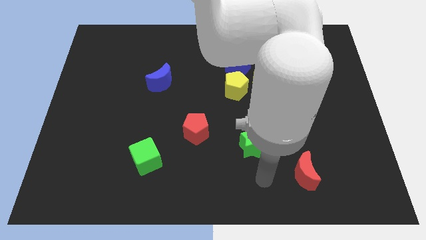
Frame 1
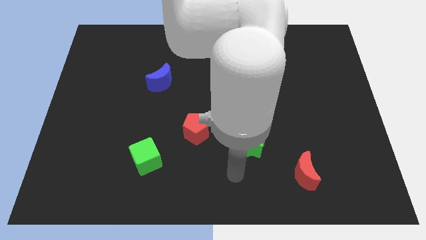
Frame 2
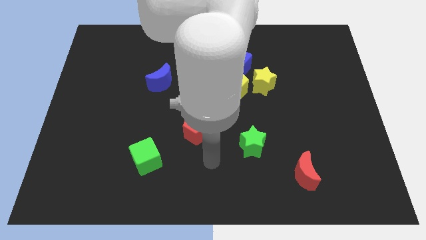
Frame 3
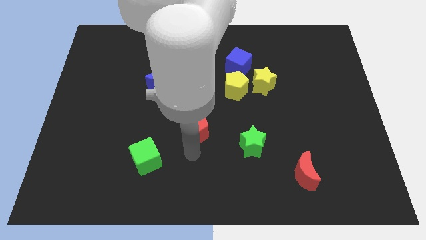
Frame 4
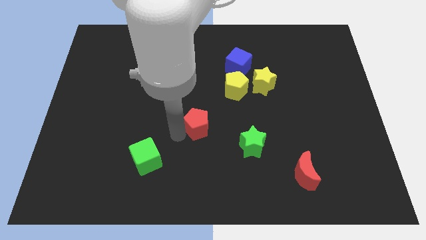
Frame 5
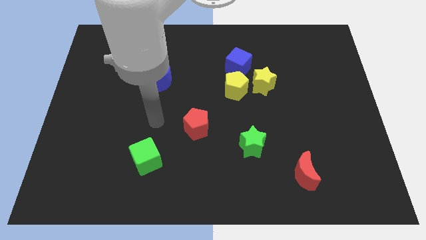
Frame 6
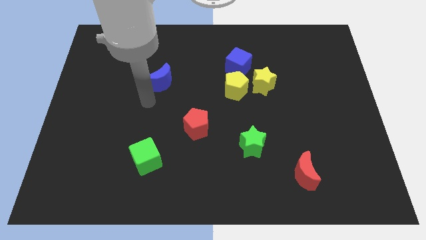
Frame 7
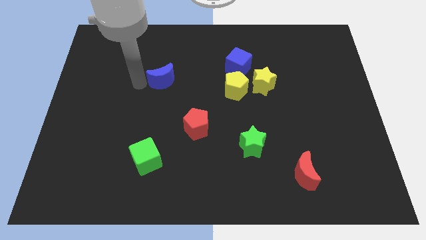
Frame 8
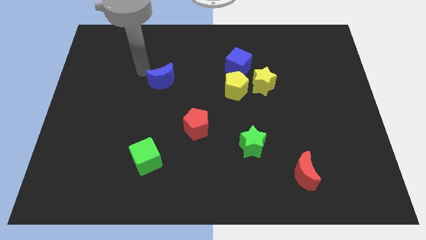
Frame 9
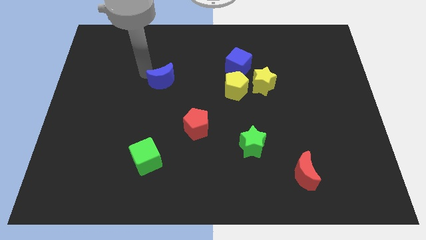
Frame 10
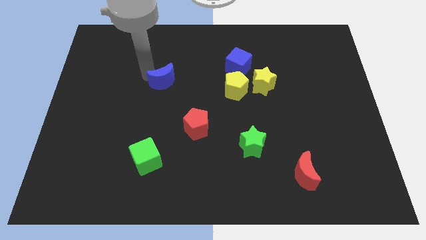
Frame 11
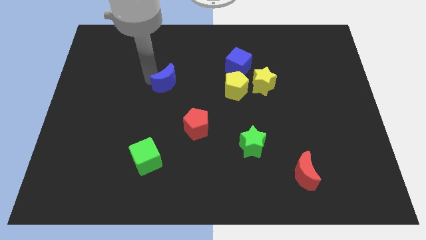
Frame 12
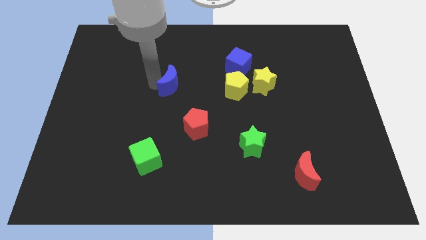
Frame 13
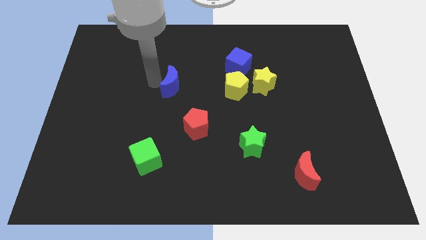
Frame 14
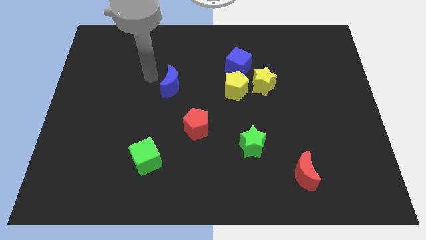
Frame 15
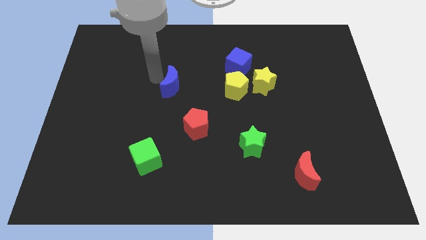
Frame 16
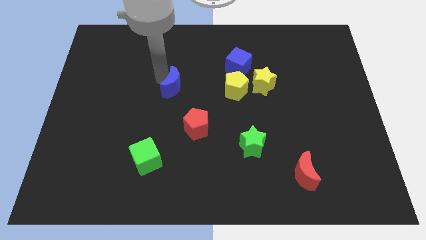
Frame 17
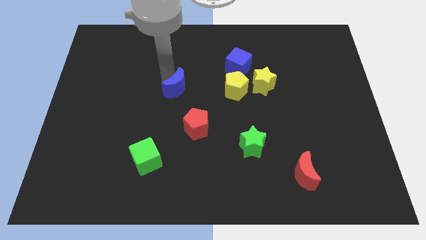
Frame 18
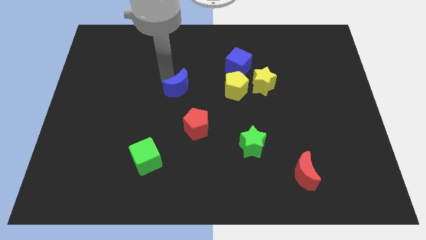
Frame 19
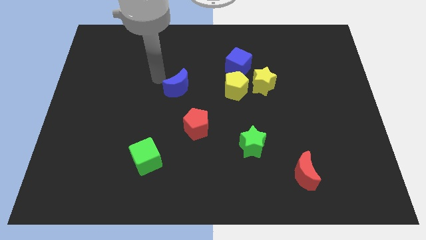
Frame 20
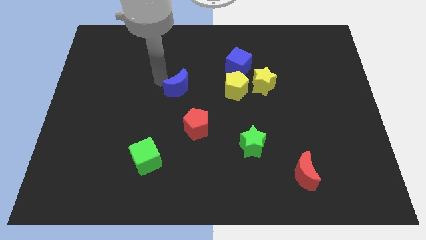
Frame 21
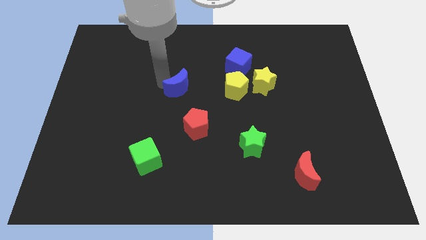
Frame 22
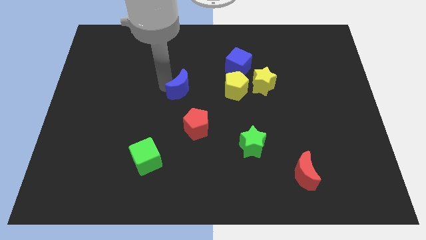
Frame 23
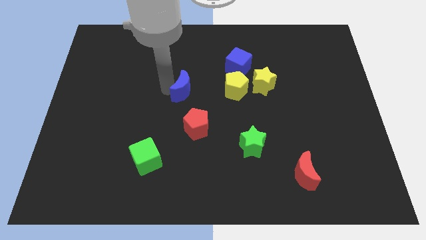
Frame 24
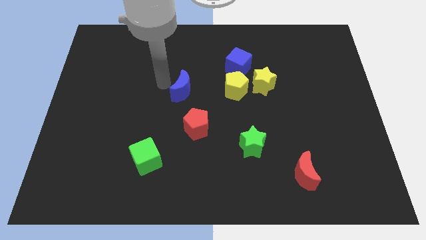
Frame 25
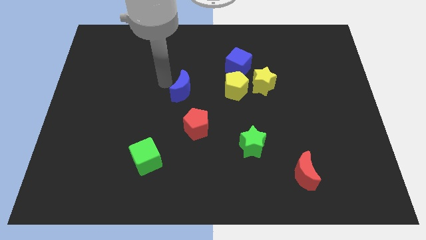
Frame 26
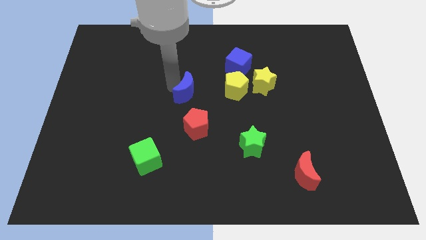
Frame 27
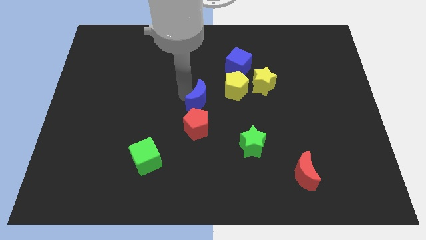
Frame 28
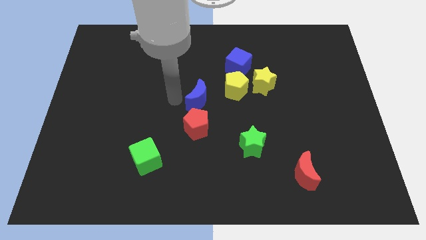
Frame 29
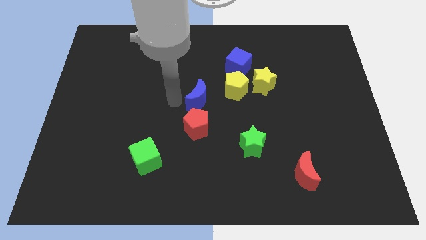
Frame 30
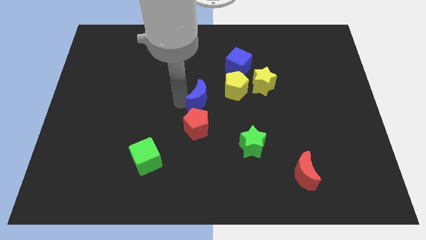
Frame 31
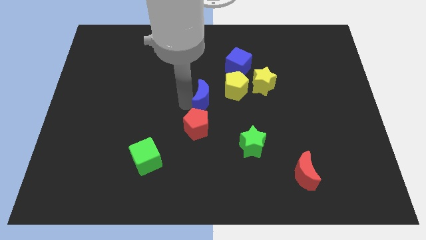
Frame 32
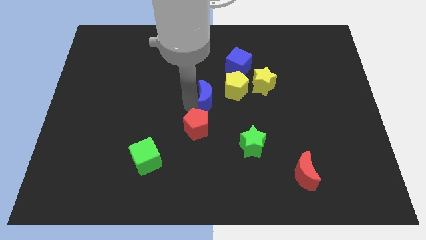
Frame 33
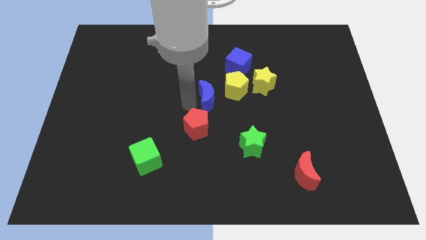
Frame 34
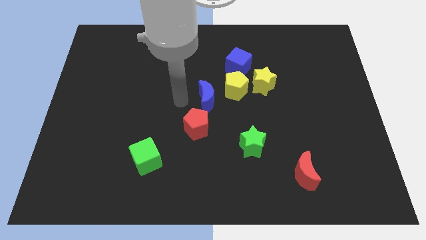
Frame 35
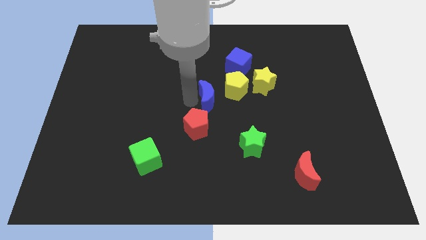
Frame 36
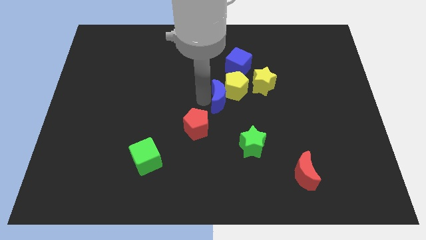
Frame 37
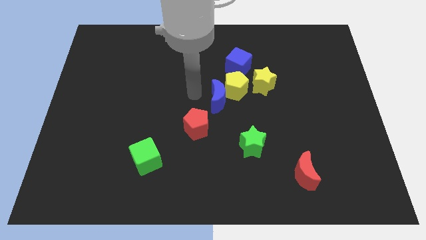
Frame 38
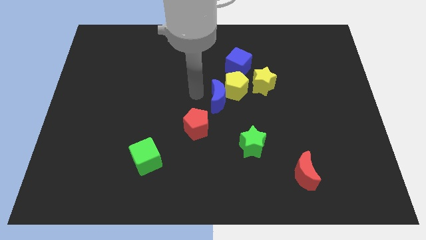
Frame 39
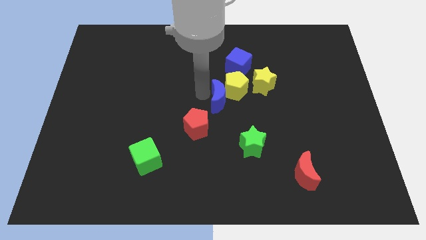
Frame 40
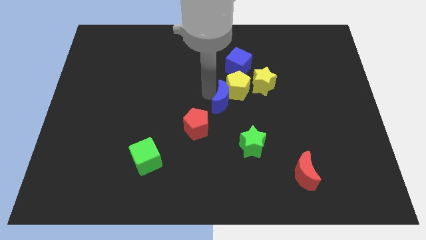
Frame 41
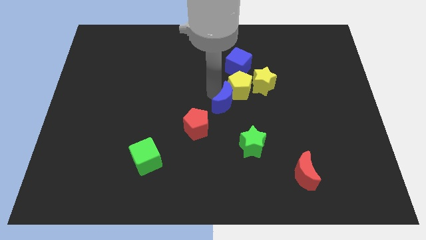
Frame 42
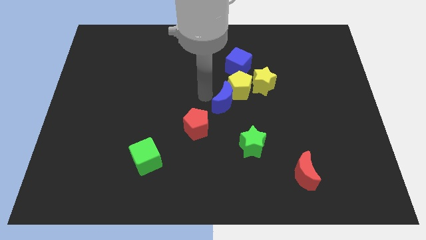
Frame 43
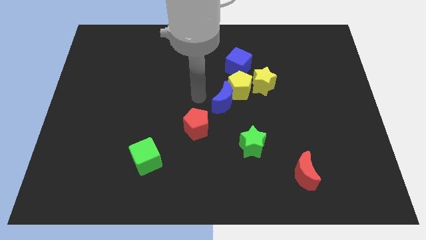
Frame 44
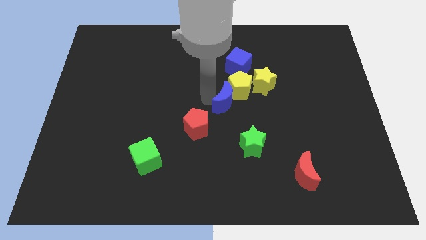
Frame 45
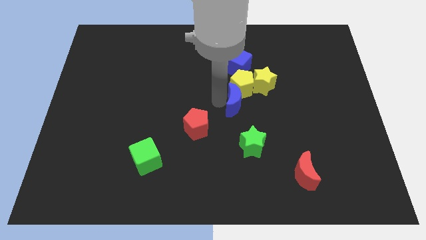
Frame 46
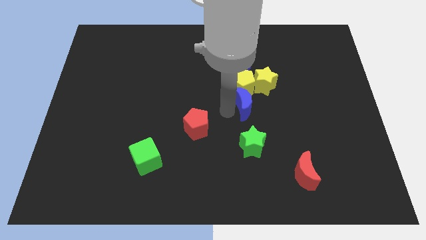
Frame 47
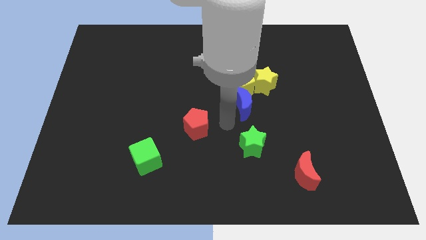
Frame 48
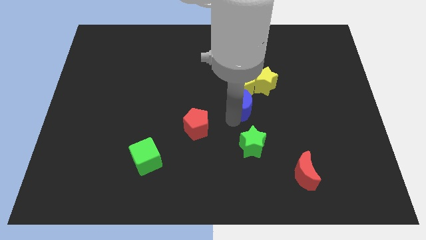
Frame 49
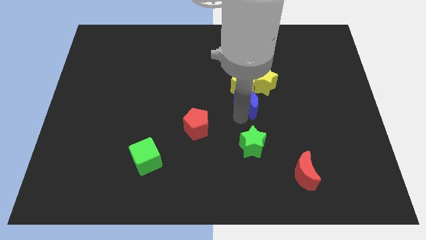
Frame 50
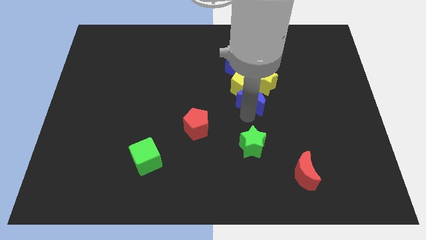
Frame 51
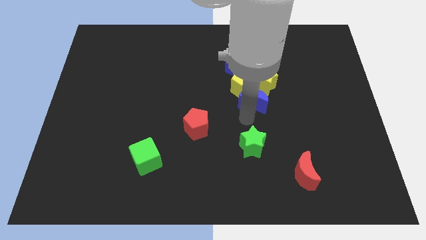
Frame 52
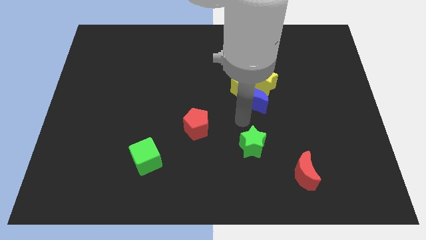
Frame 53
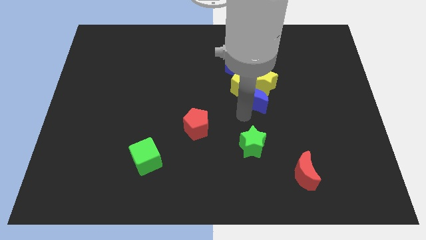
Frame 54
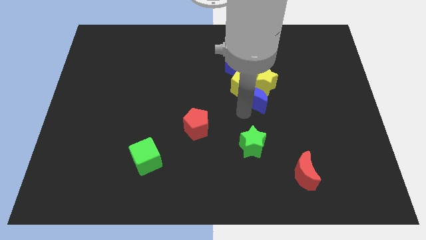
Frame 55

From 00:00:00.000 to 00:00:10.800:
move the blue moon next to the yellow star

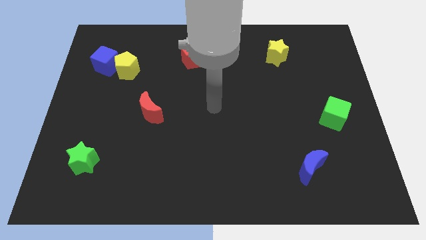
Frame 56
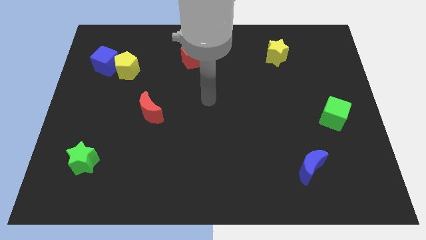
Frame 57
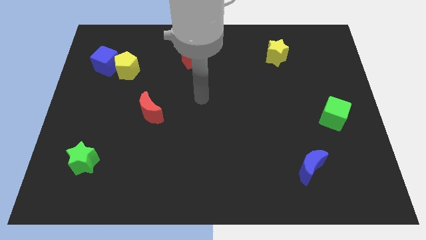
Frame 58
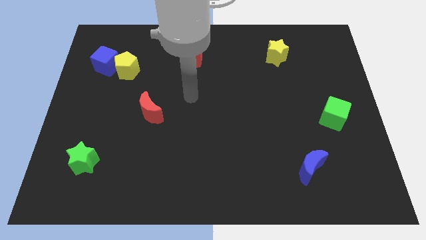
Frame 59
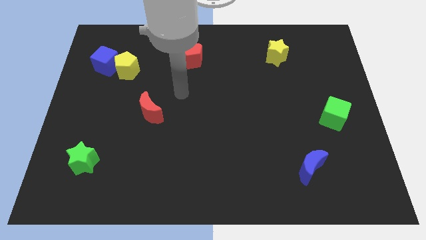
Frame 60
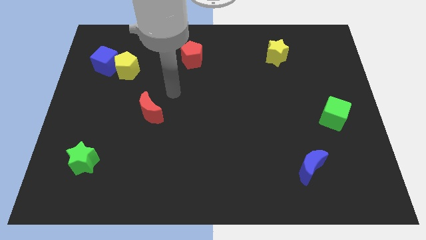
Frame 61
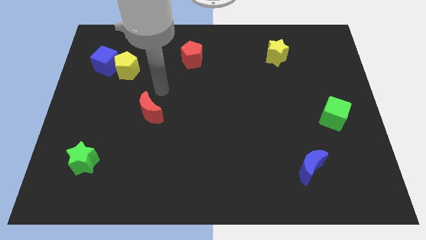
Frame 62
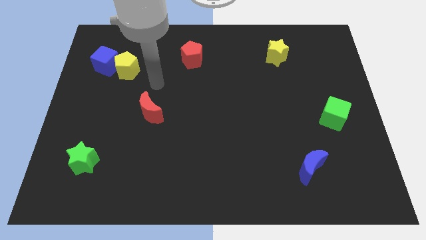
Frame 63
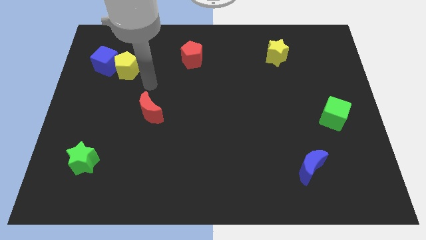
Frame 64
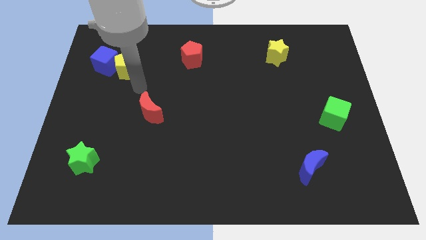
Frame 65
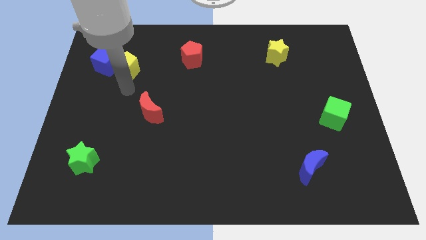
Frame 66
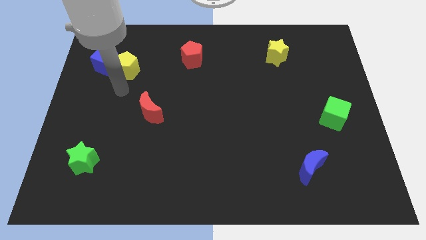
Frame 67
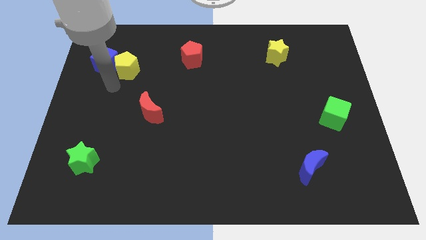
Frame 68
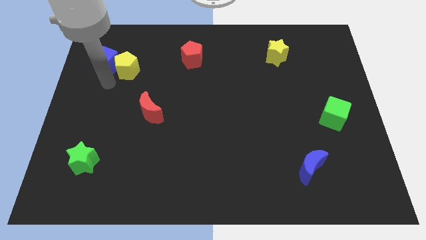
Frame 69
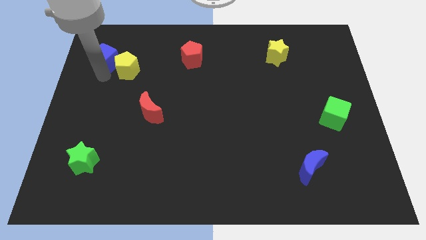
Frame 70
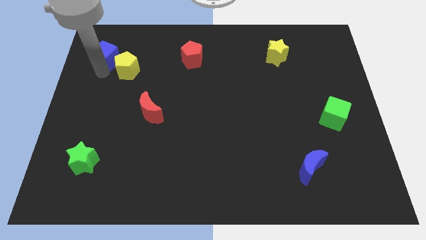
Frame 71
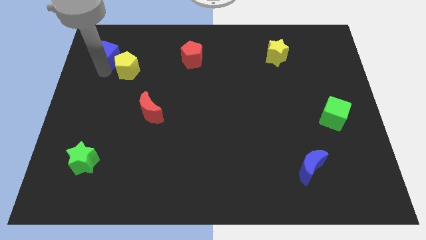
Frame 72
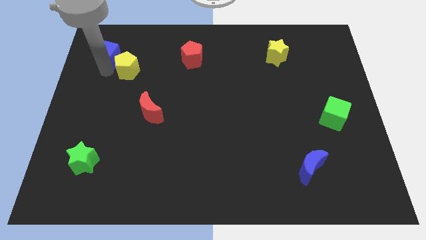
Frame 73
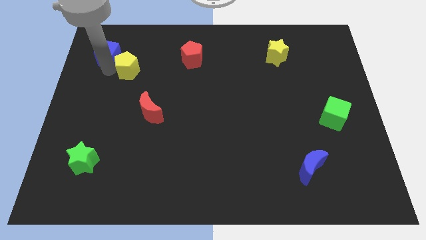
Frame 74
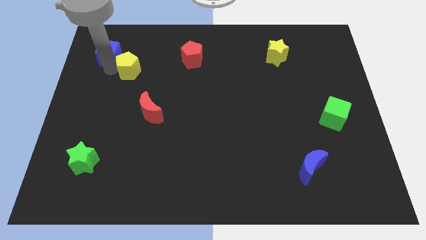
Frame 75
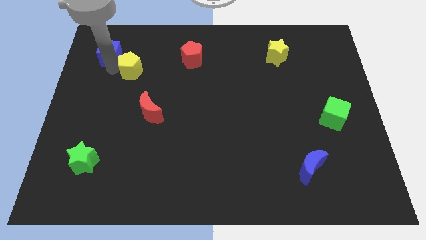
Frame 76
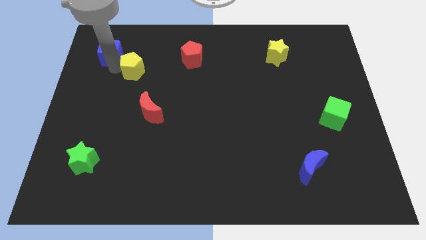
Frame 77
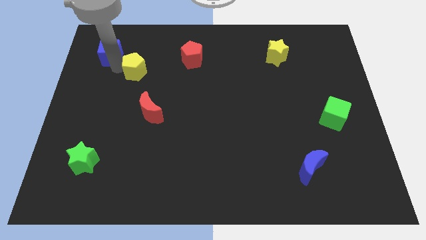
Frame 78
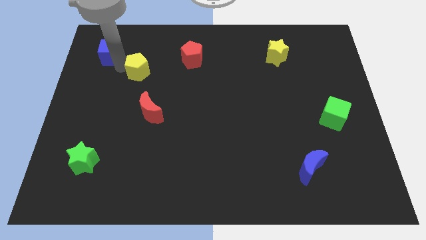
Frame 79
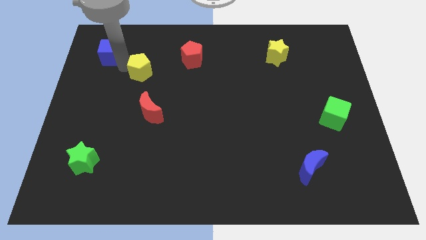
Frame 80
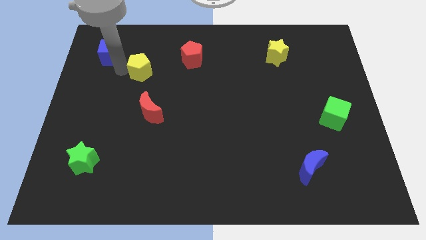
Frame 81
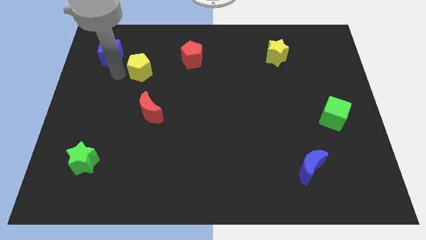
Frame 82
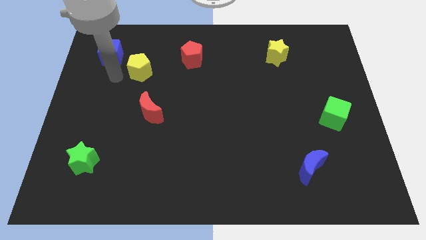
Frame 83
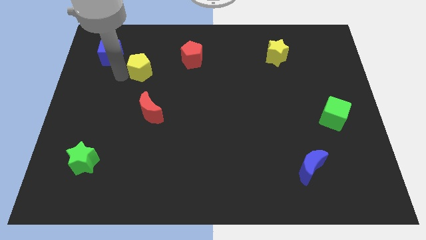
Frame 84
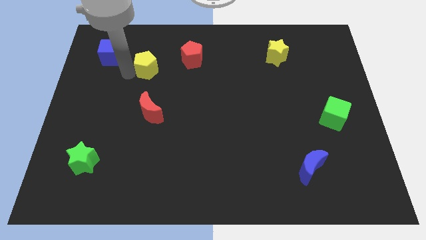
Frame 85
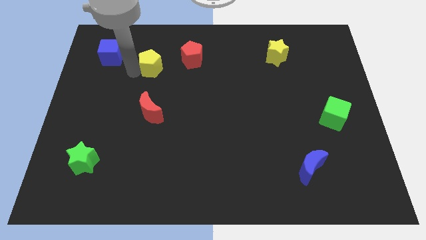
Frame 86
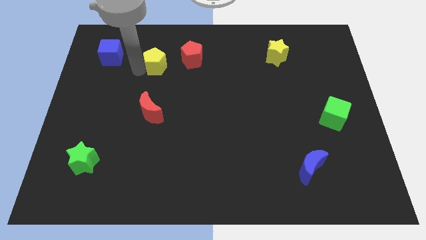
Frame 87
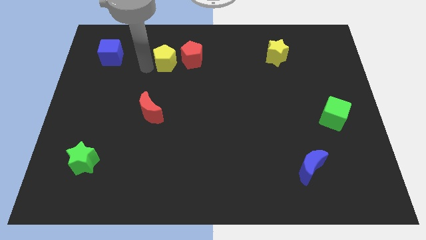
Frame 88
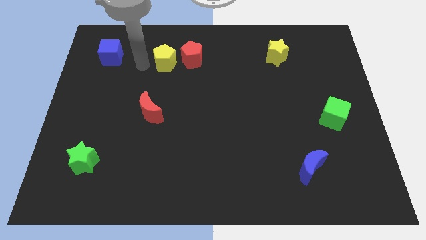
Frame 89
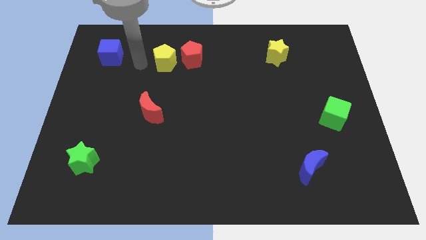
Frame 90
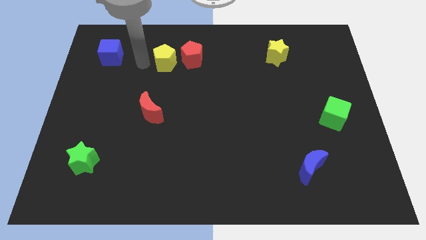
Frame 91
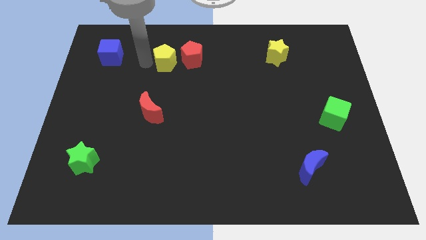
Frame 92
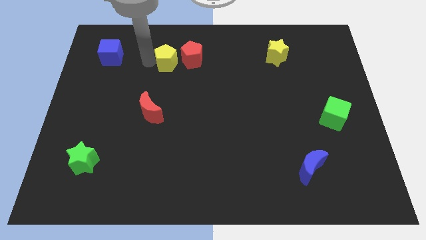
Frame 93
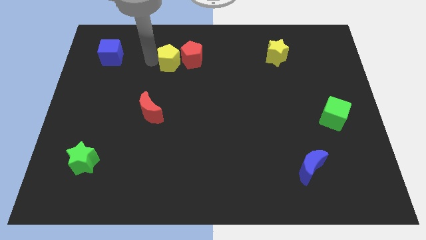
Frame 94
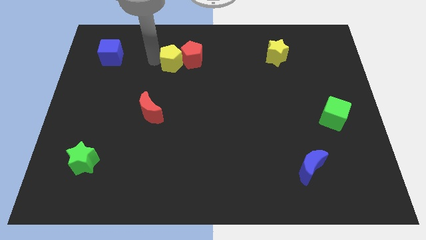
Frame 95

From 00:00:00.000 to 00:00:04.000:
move the yellow pentagon close to the red pentagon
